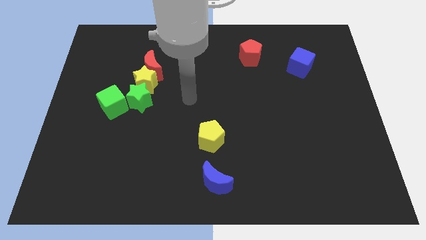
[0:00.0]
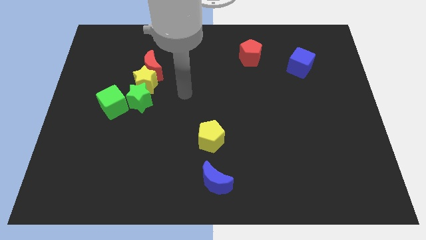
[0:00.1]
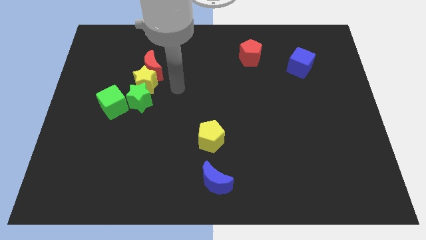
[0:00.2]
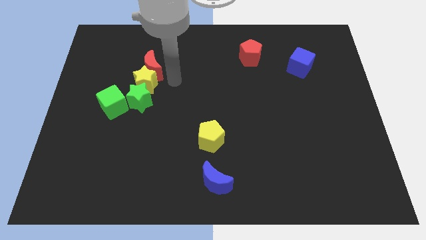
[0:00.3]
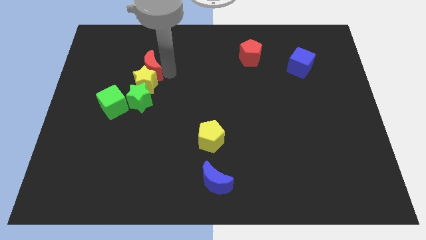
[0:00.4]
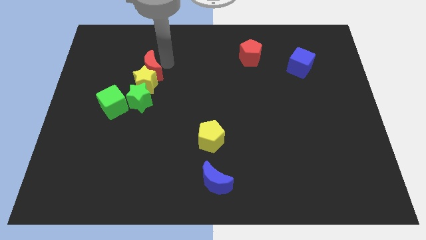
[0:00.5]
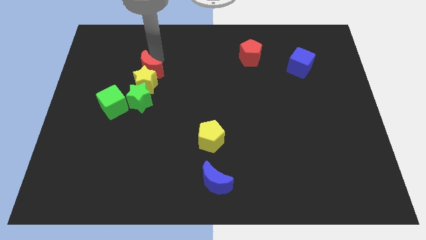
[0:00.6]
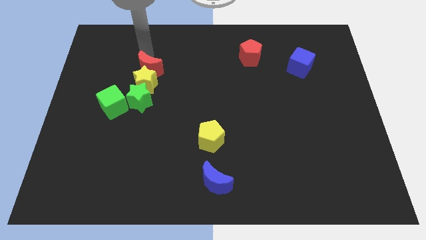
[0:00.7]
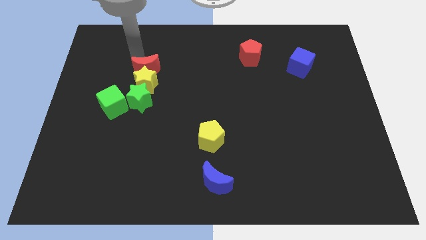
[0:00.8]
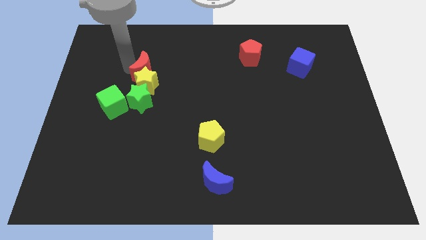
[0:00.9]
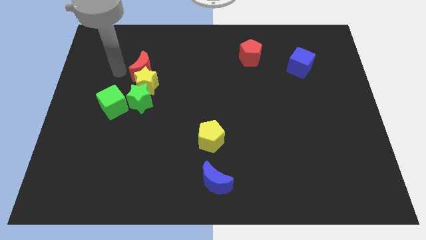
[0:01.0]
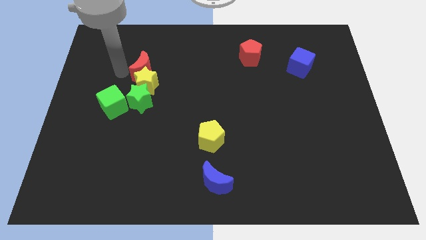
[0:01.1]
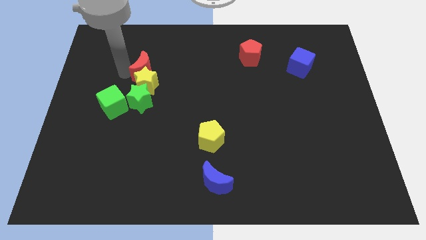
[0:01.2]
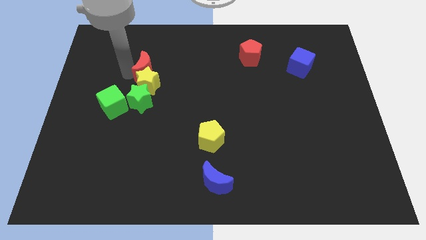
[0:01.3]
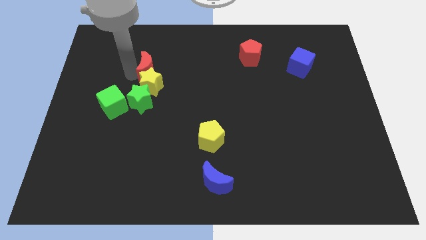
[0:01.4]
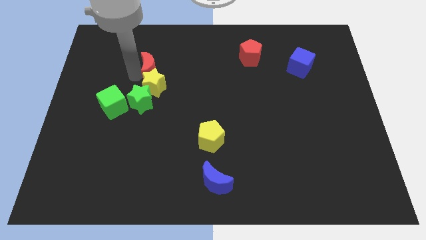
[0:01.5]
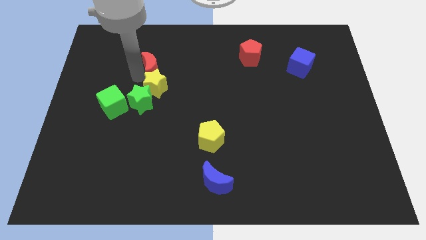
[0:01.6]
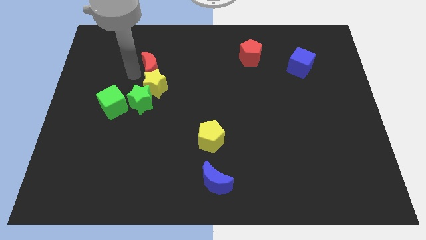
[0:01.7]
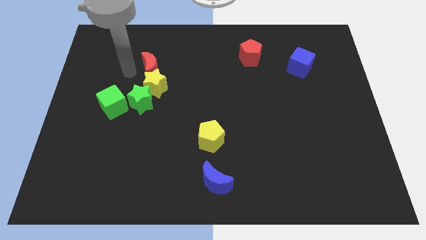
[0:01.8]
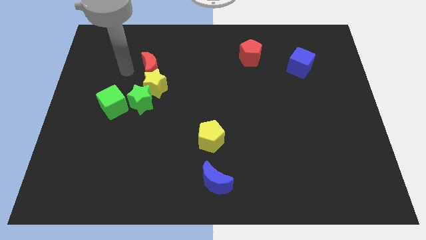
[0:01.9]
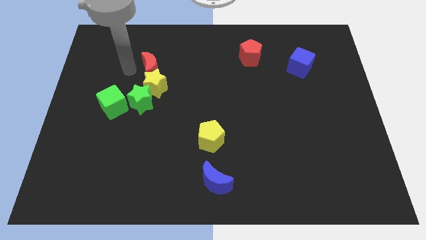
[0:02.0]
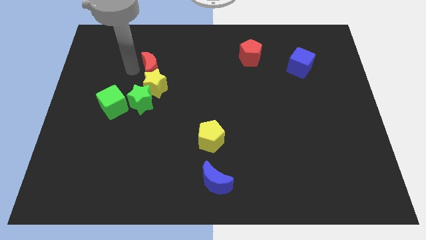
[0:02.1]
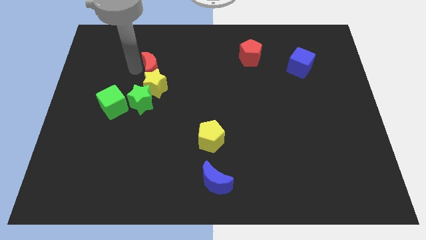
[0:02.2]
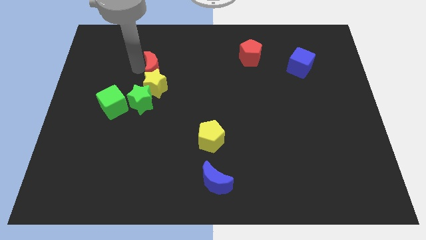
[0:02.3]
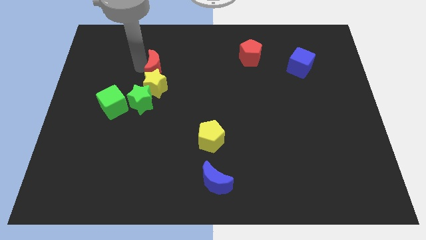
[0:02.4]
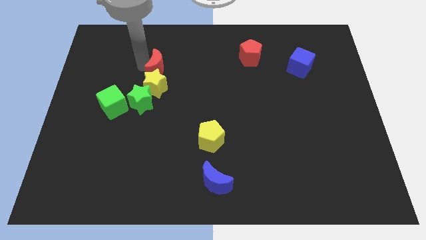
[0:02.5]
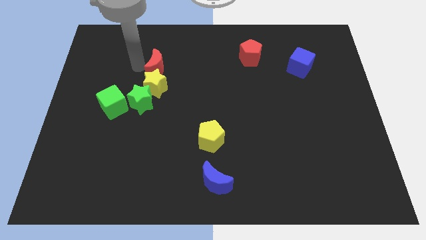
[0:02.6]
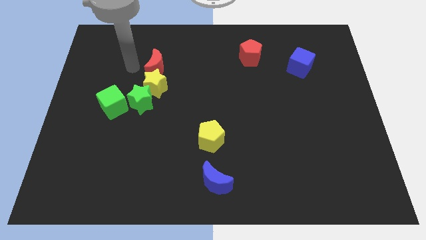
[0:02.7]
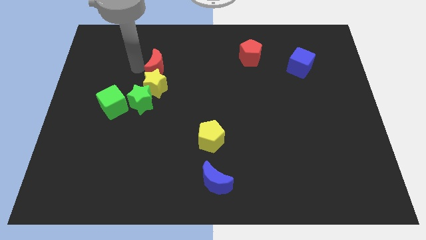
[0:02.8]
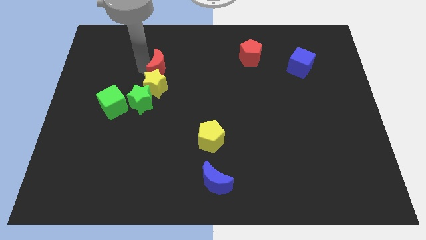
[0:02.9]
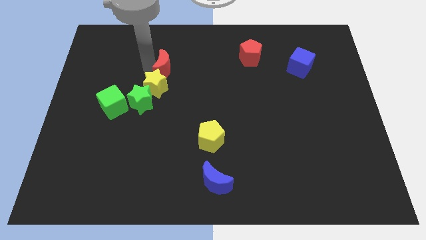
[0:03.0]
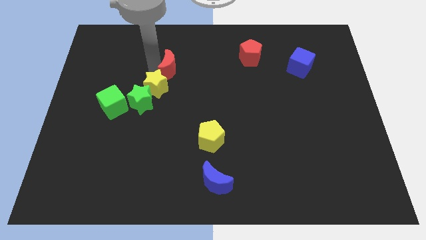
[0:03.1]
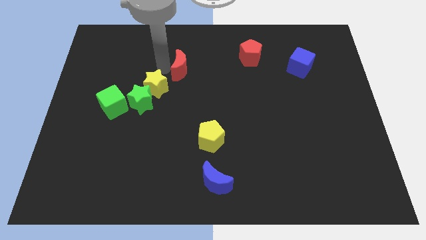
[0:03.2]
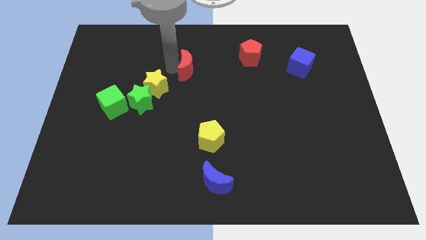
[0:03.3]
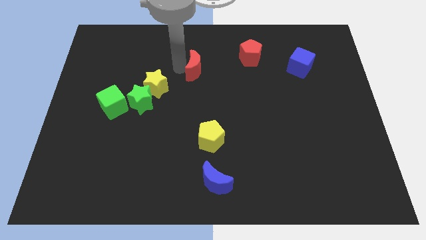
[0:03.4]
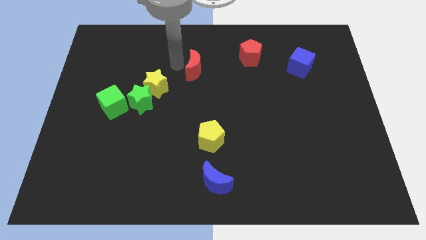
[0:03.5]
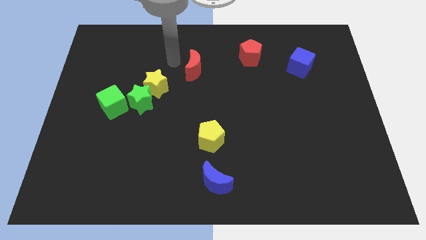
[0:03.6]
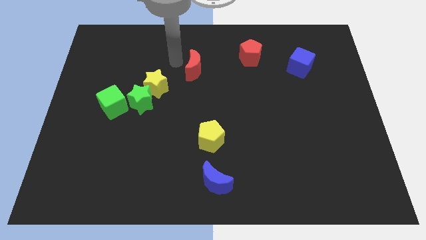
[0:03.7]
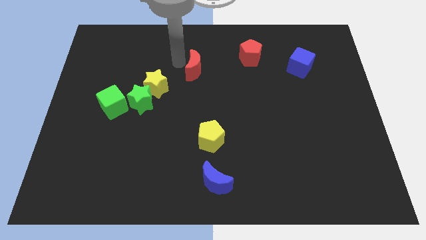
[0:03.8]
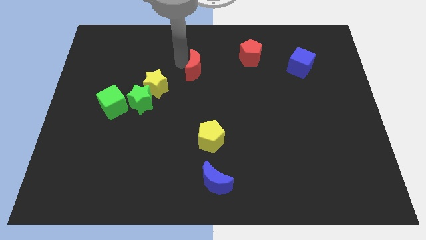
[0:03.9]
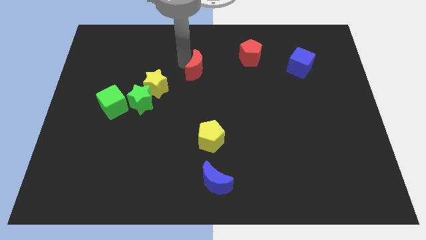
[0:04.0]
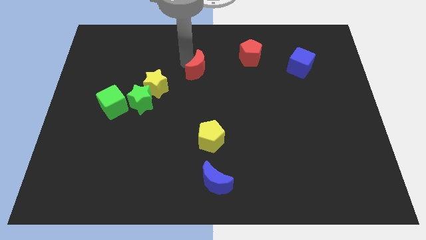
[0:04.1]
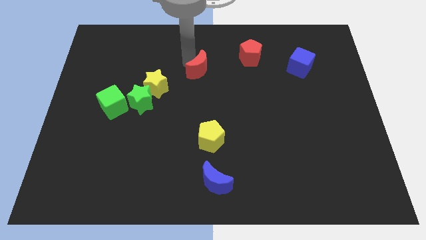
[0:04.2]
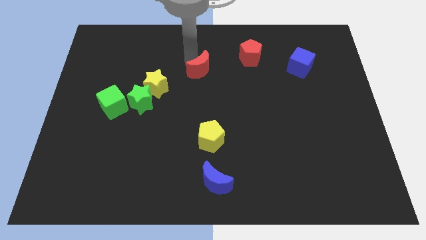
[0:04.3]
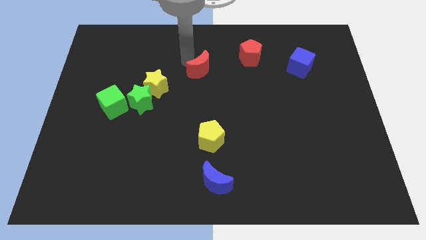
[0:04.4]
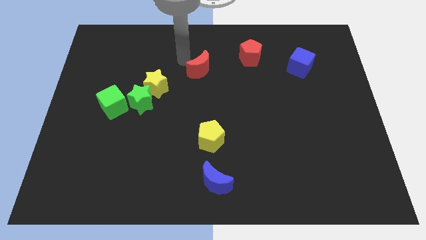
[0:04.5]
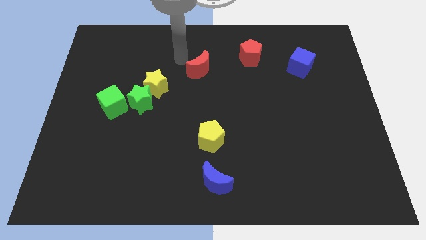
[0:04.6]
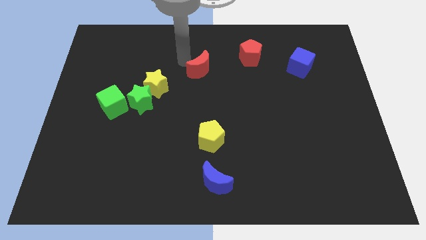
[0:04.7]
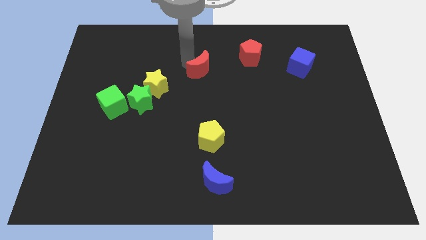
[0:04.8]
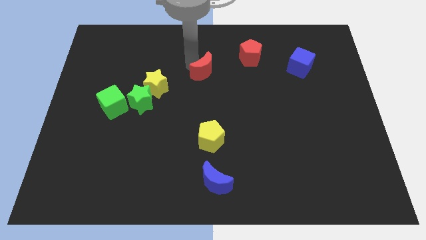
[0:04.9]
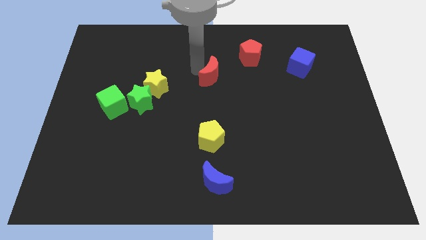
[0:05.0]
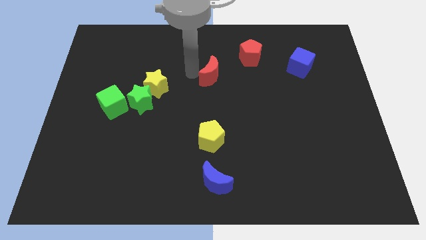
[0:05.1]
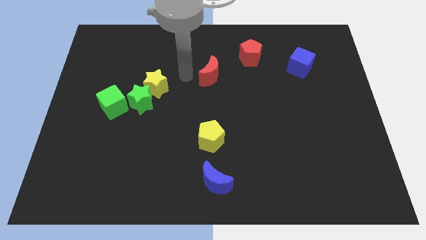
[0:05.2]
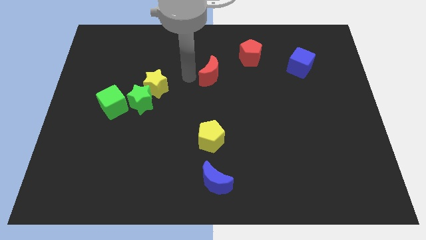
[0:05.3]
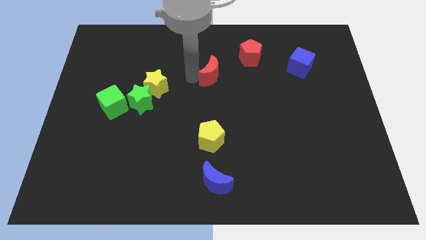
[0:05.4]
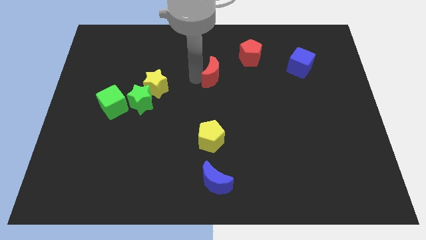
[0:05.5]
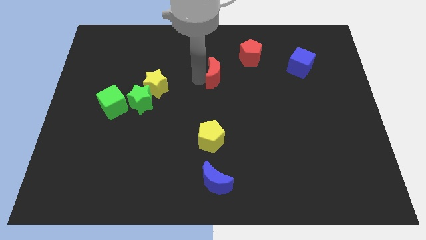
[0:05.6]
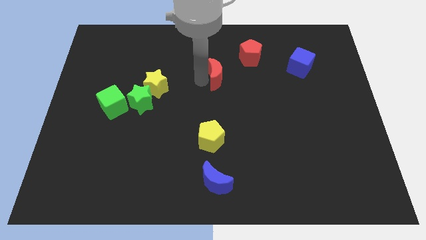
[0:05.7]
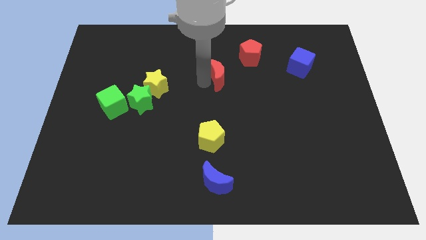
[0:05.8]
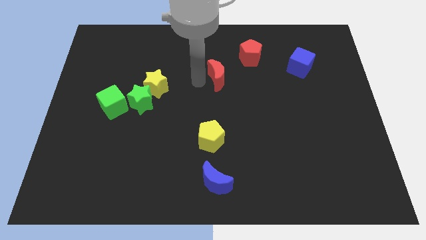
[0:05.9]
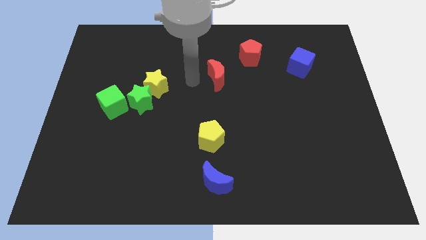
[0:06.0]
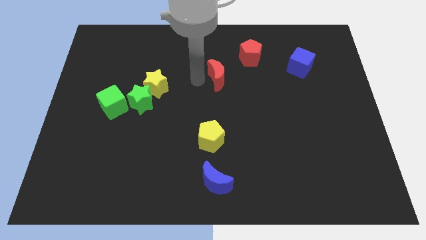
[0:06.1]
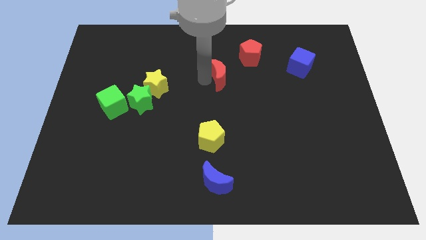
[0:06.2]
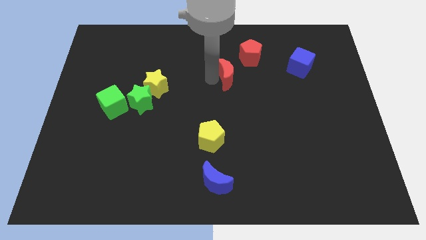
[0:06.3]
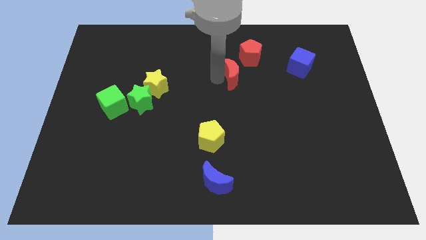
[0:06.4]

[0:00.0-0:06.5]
push the red moon right

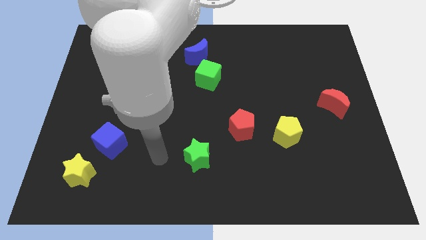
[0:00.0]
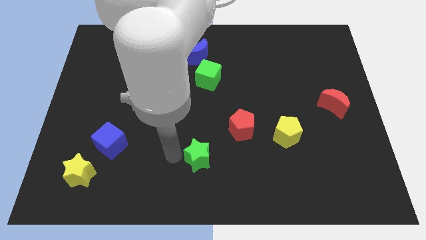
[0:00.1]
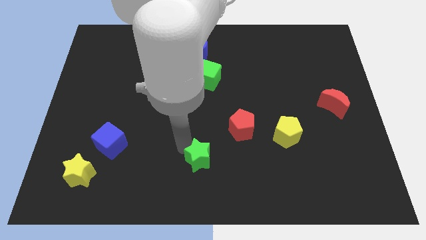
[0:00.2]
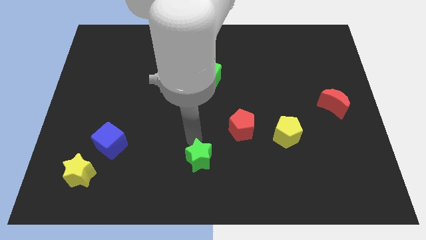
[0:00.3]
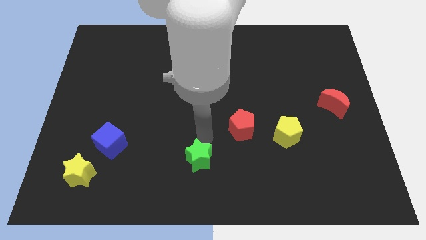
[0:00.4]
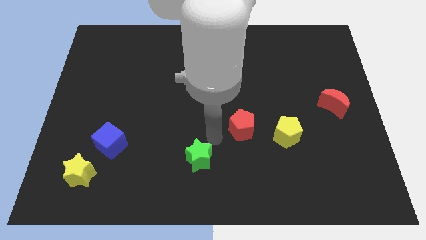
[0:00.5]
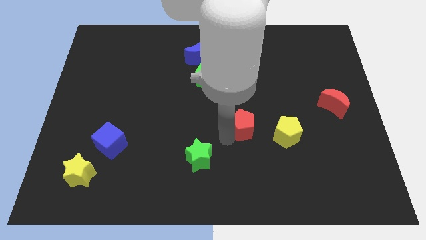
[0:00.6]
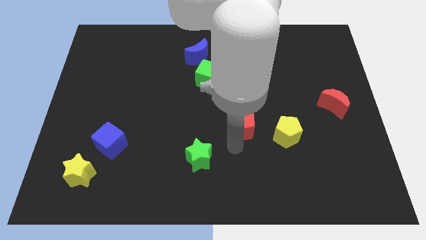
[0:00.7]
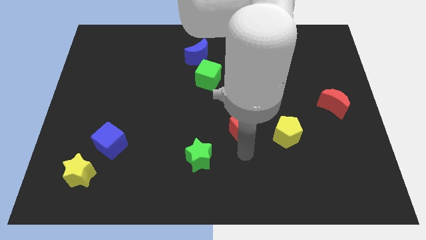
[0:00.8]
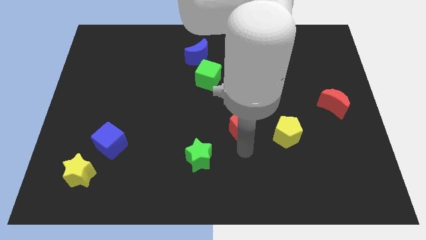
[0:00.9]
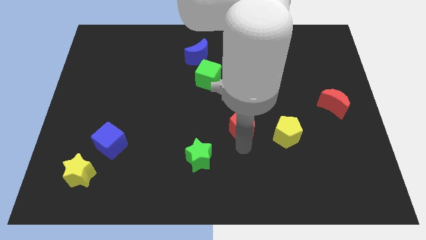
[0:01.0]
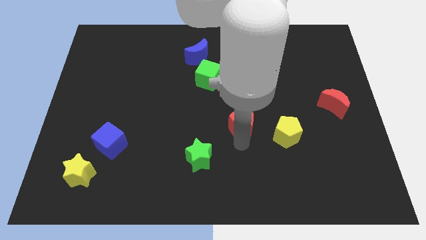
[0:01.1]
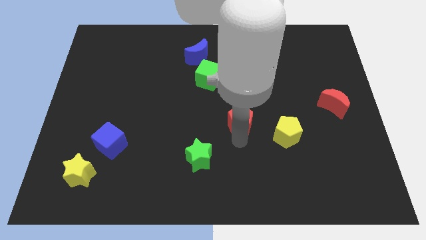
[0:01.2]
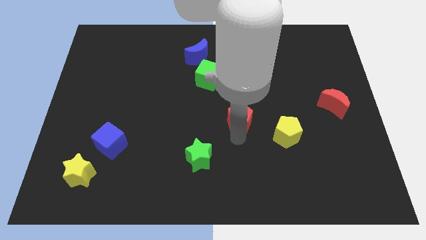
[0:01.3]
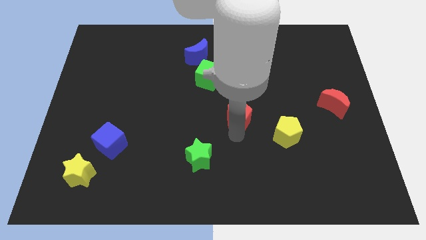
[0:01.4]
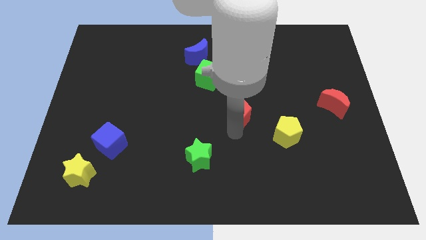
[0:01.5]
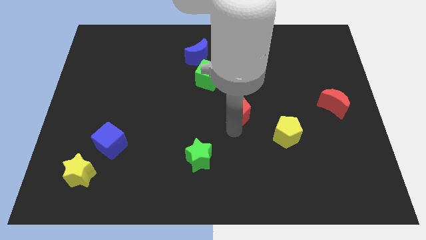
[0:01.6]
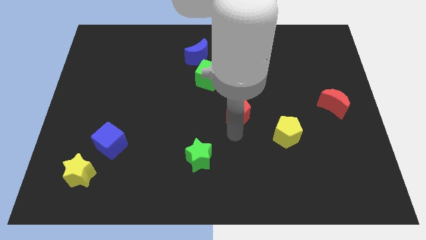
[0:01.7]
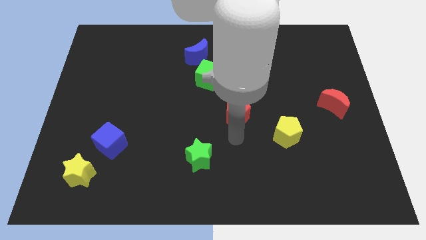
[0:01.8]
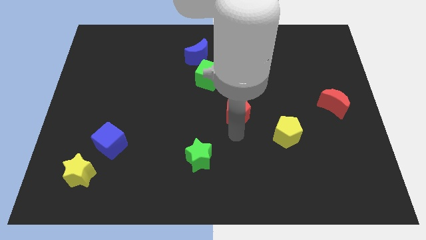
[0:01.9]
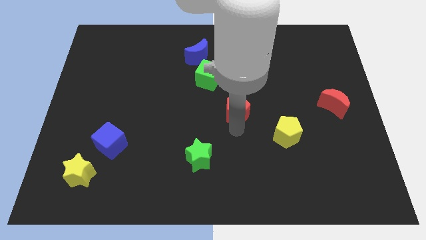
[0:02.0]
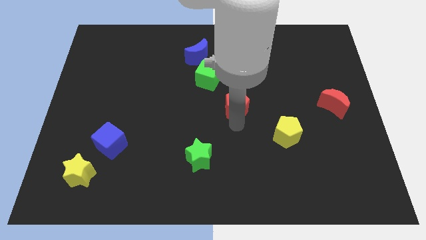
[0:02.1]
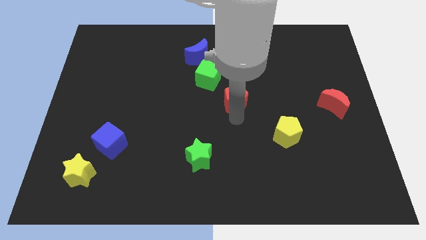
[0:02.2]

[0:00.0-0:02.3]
move the red pentagon slightly upwards
